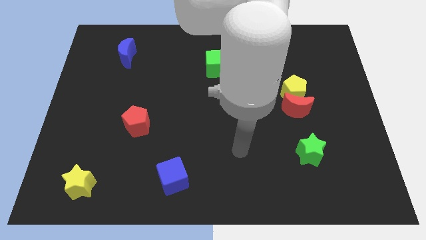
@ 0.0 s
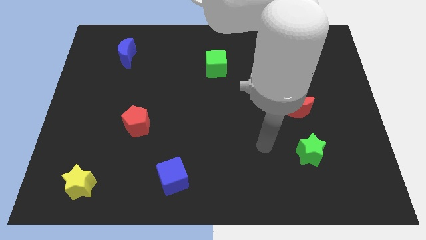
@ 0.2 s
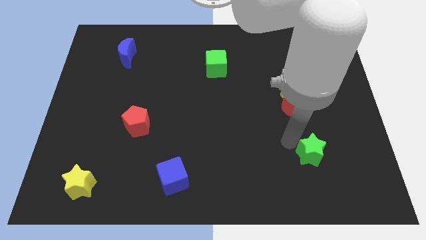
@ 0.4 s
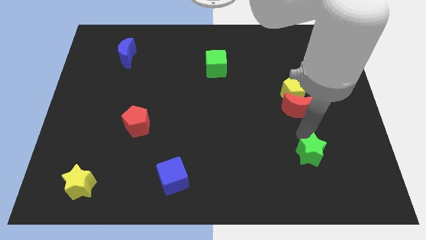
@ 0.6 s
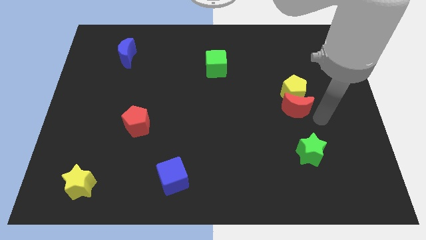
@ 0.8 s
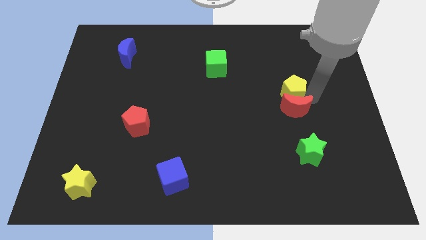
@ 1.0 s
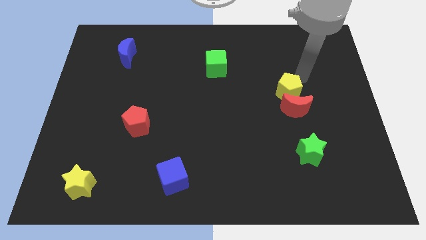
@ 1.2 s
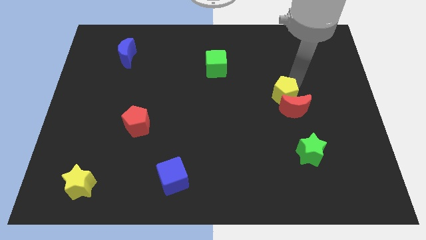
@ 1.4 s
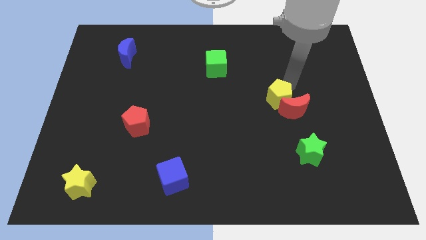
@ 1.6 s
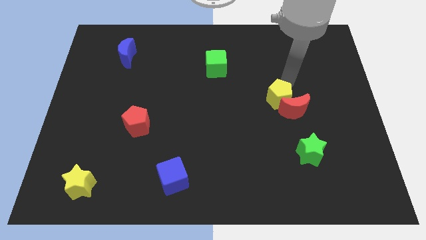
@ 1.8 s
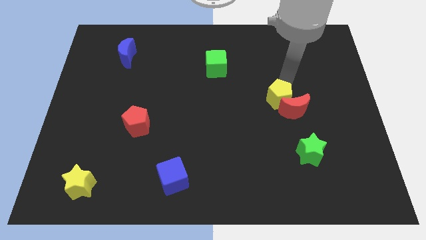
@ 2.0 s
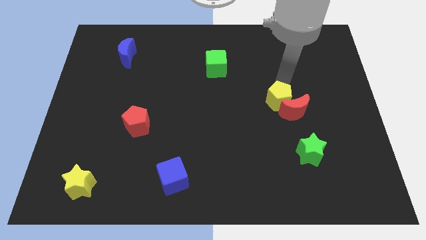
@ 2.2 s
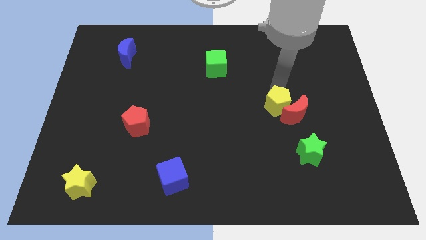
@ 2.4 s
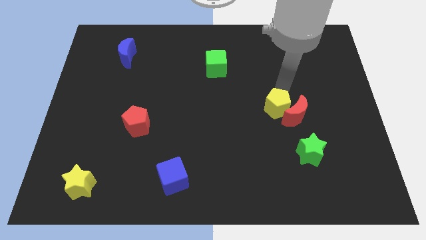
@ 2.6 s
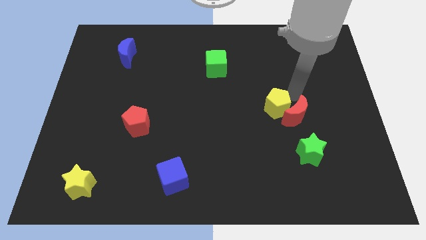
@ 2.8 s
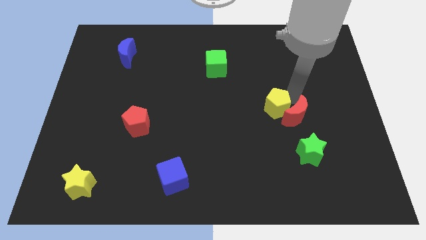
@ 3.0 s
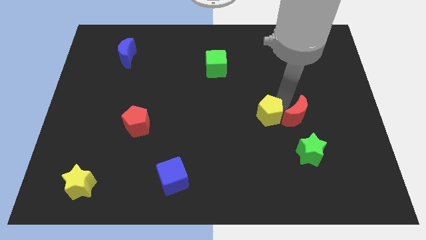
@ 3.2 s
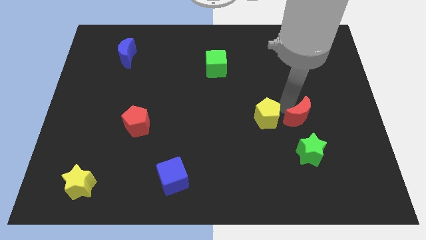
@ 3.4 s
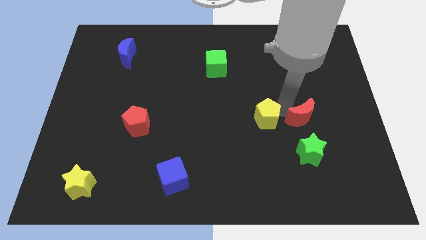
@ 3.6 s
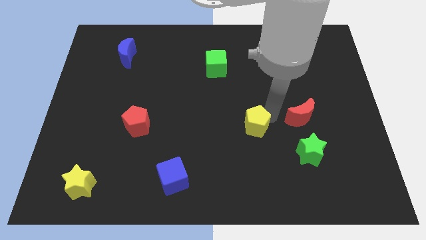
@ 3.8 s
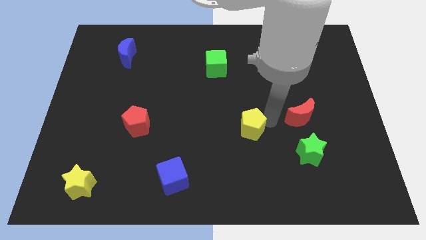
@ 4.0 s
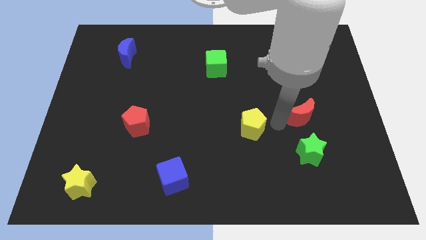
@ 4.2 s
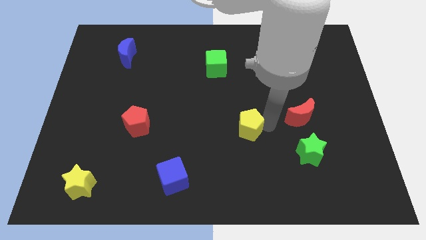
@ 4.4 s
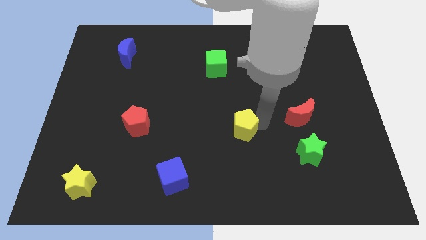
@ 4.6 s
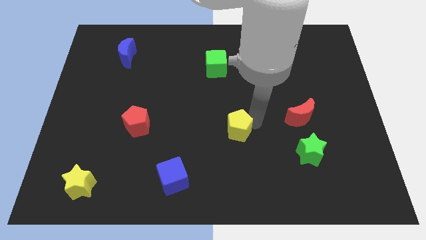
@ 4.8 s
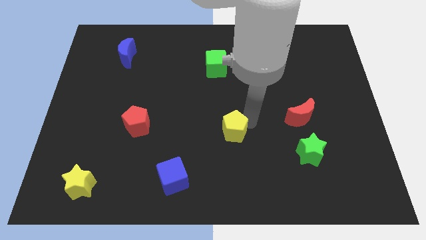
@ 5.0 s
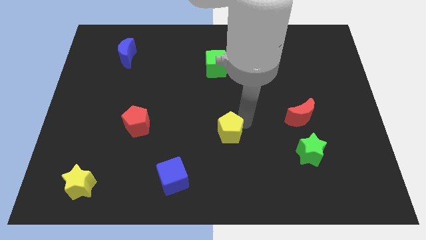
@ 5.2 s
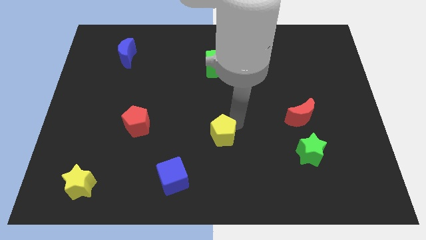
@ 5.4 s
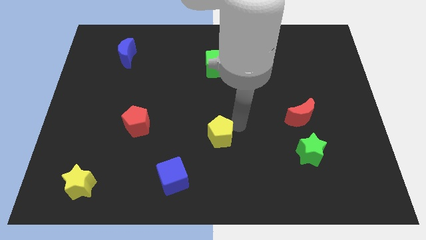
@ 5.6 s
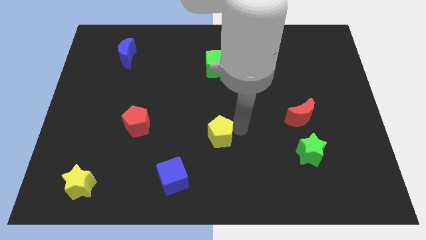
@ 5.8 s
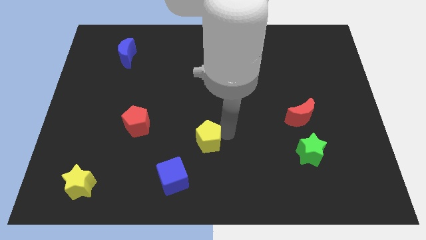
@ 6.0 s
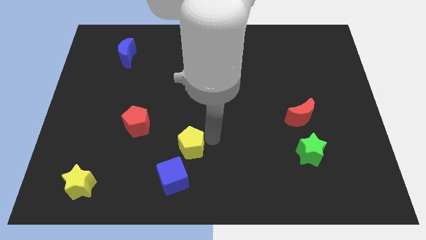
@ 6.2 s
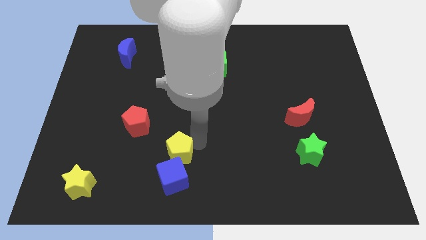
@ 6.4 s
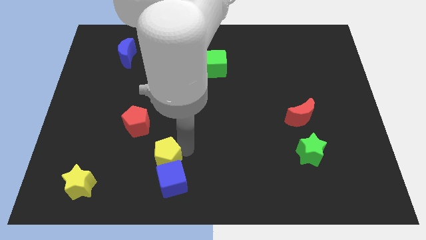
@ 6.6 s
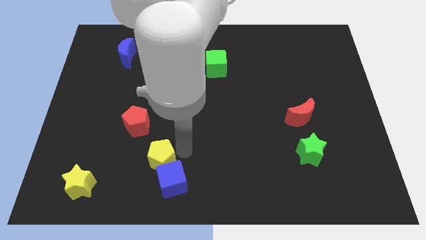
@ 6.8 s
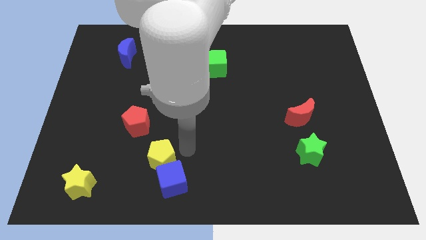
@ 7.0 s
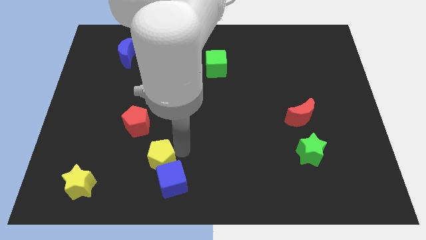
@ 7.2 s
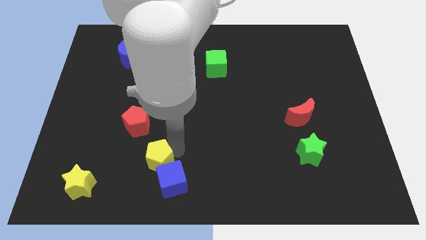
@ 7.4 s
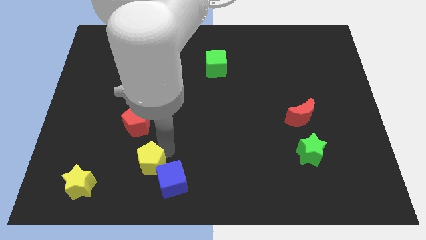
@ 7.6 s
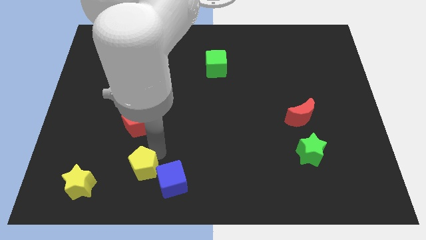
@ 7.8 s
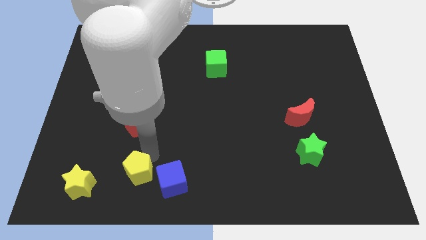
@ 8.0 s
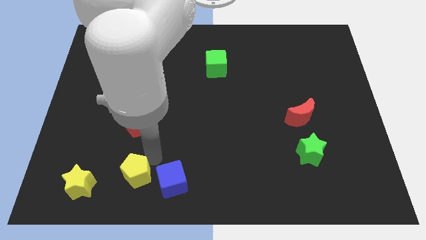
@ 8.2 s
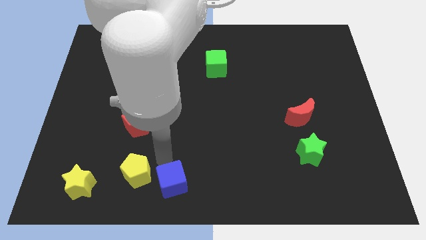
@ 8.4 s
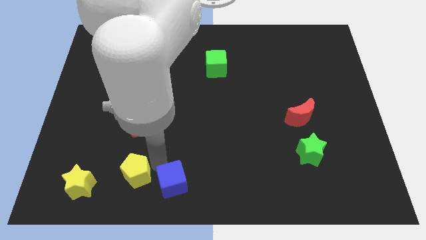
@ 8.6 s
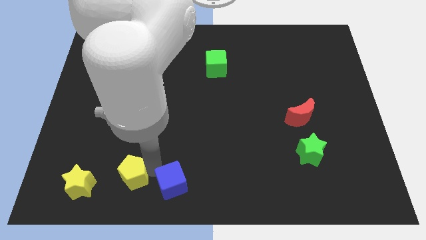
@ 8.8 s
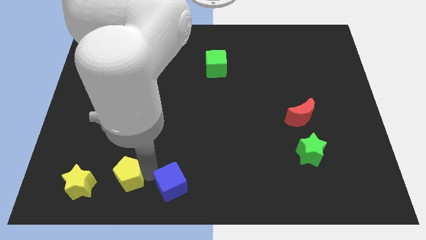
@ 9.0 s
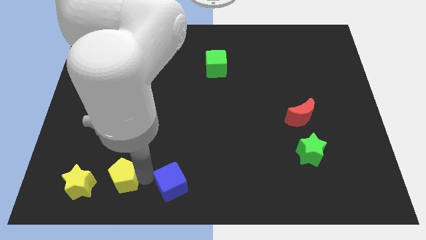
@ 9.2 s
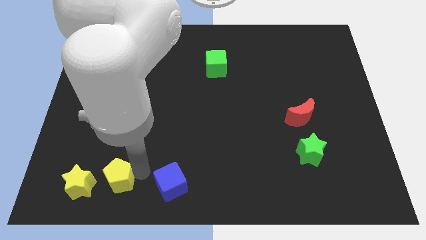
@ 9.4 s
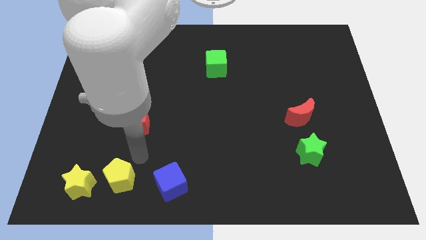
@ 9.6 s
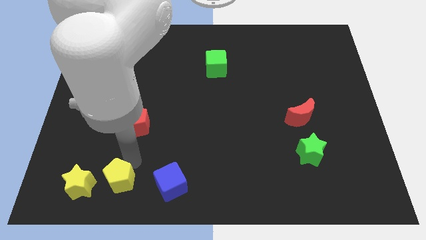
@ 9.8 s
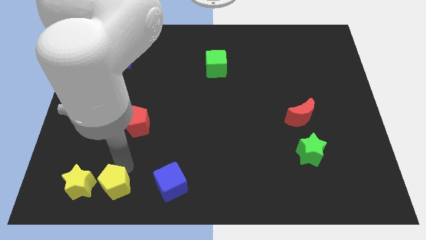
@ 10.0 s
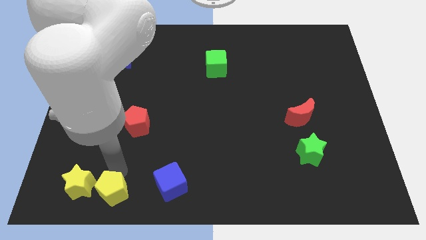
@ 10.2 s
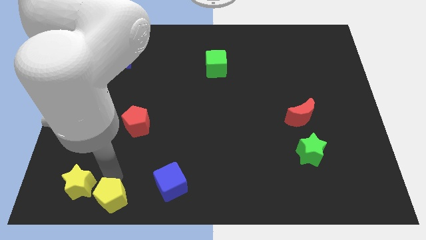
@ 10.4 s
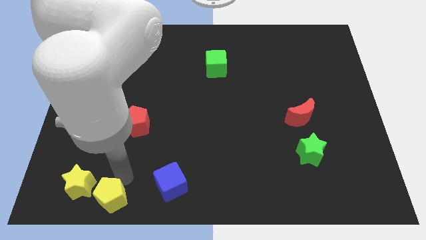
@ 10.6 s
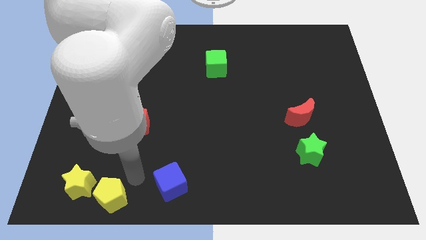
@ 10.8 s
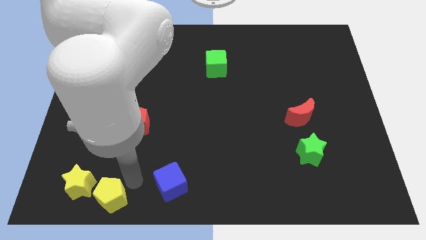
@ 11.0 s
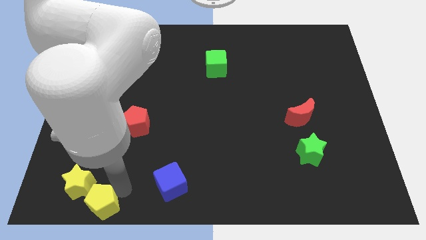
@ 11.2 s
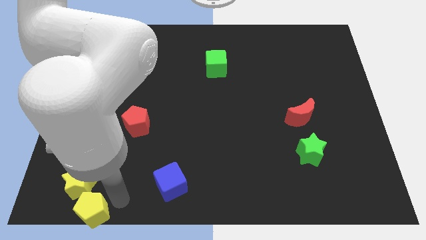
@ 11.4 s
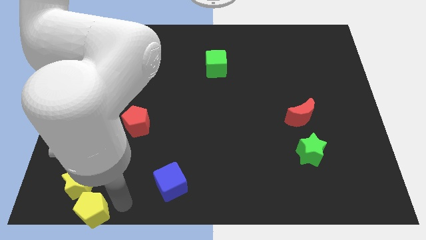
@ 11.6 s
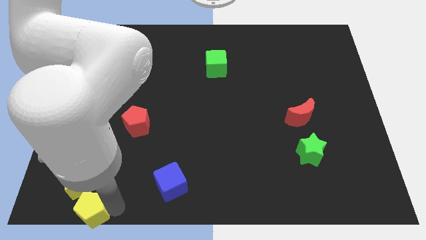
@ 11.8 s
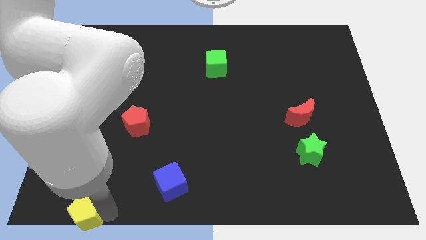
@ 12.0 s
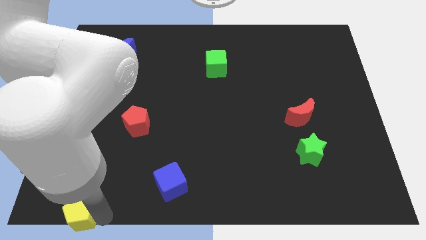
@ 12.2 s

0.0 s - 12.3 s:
put the yellow pentagon to the bottom left of the board

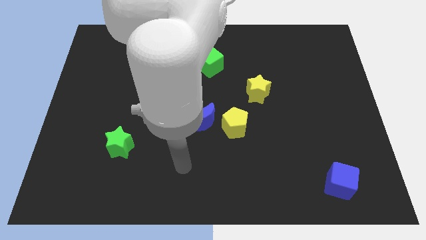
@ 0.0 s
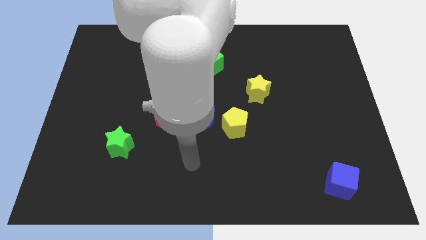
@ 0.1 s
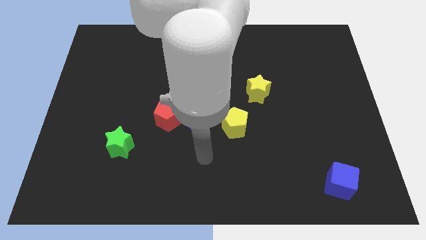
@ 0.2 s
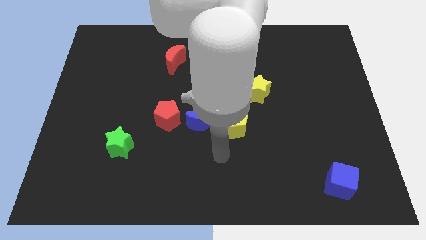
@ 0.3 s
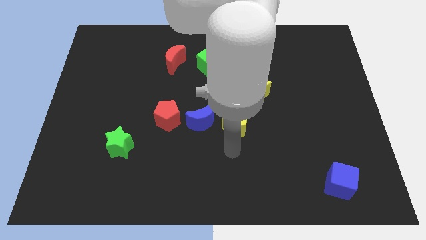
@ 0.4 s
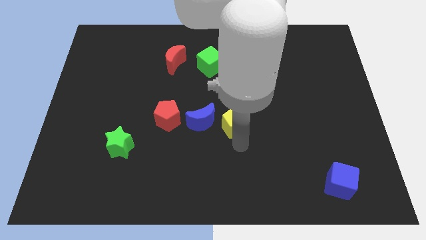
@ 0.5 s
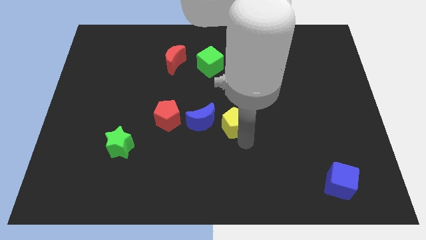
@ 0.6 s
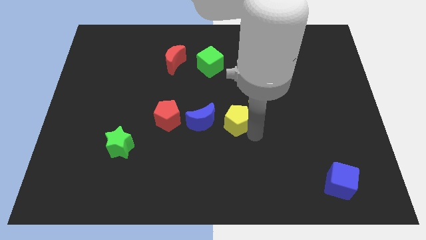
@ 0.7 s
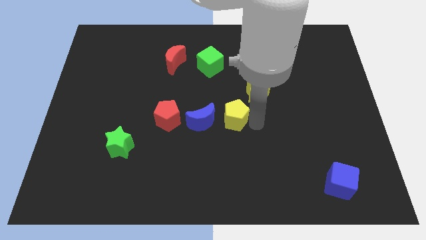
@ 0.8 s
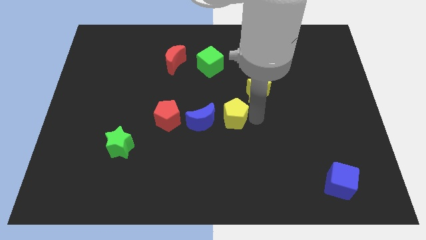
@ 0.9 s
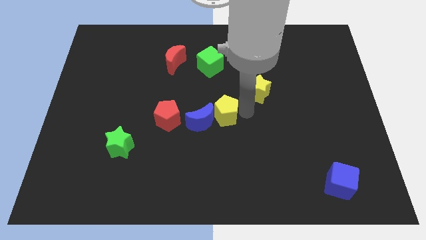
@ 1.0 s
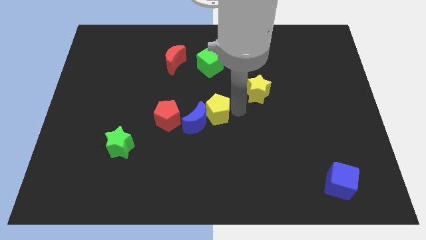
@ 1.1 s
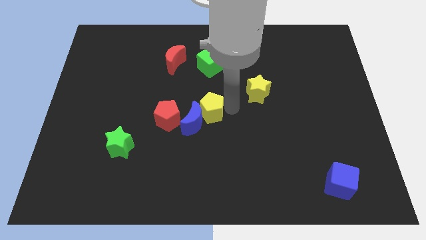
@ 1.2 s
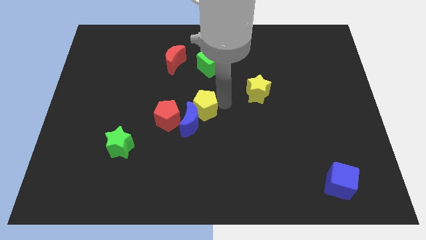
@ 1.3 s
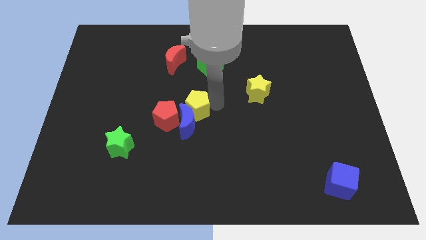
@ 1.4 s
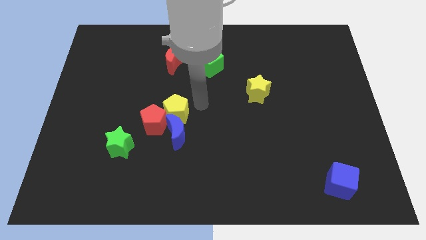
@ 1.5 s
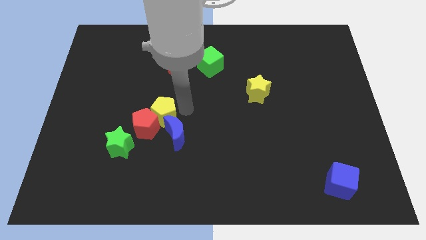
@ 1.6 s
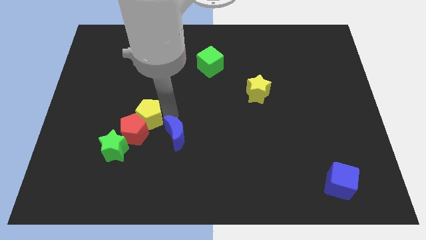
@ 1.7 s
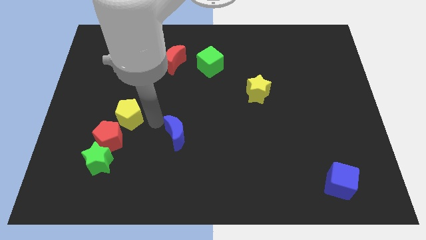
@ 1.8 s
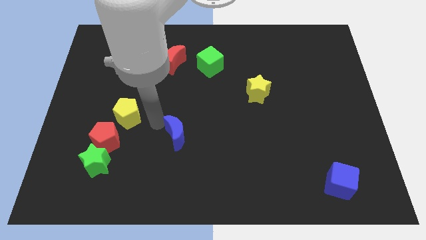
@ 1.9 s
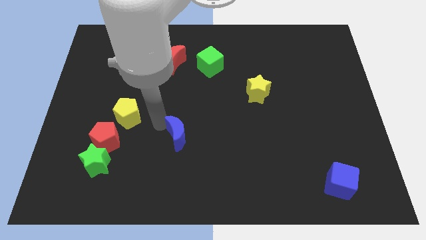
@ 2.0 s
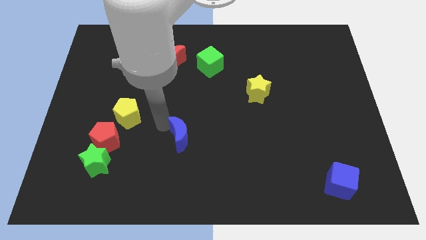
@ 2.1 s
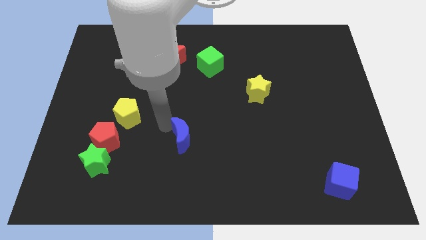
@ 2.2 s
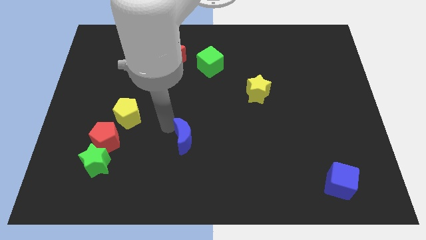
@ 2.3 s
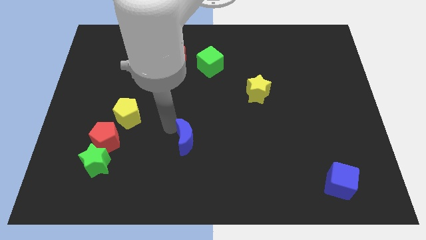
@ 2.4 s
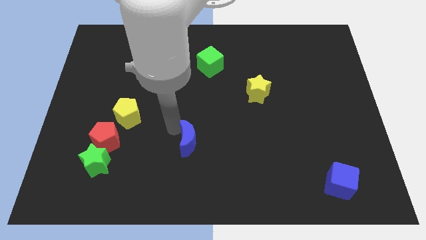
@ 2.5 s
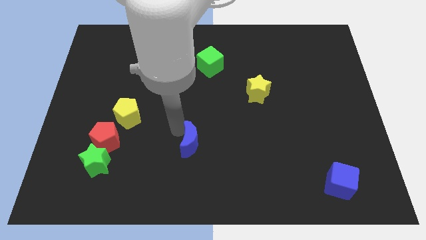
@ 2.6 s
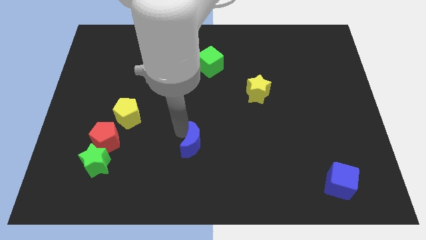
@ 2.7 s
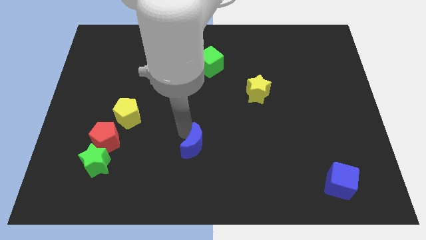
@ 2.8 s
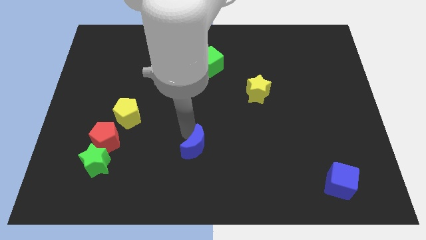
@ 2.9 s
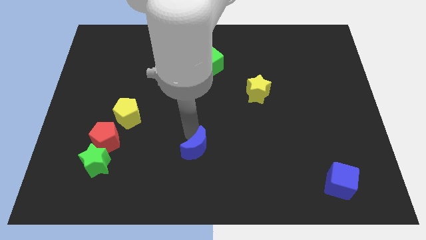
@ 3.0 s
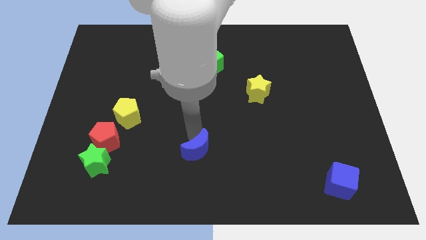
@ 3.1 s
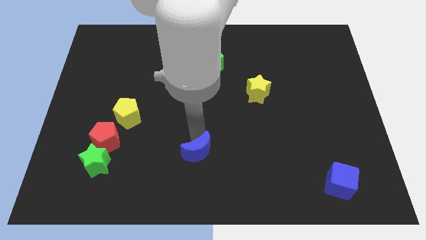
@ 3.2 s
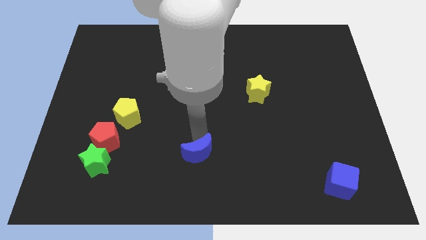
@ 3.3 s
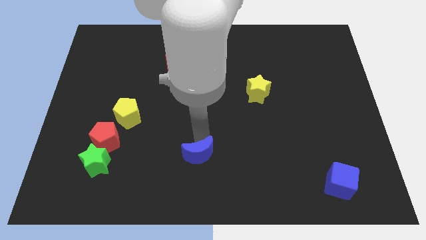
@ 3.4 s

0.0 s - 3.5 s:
push the blue moon to the bottom
